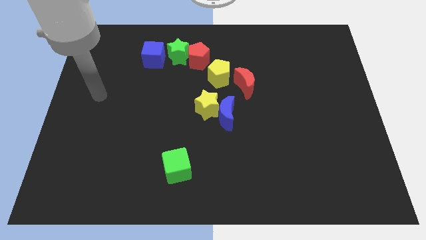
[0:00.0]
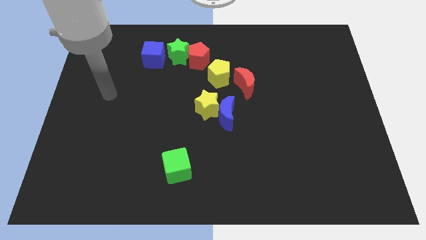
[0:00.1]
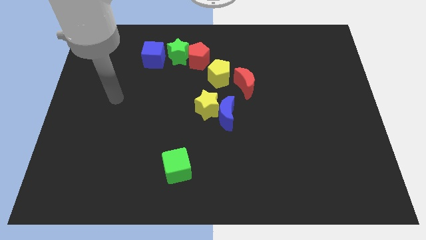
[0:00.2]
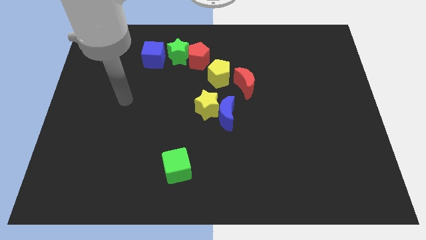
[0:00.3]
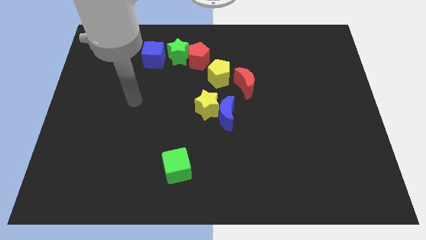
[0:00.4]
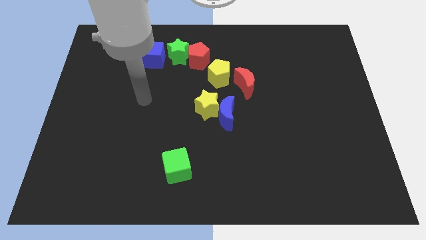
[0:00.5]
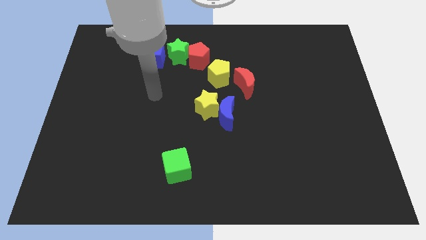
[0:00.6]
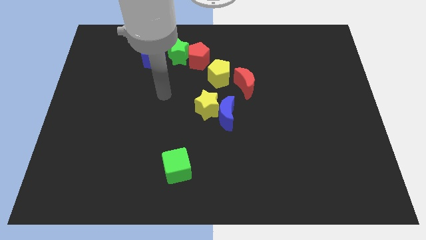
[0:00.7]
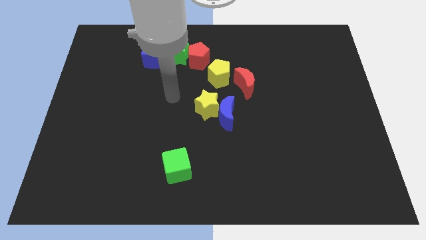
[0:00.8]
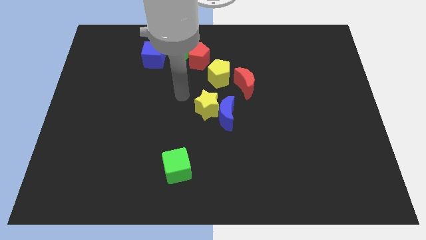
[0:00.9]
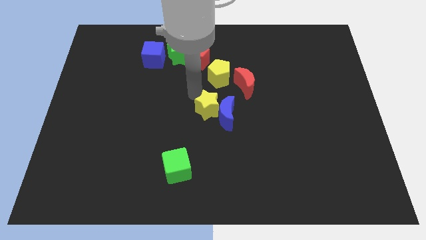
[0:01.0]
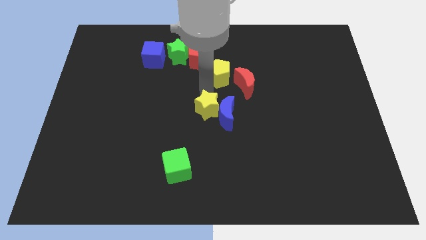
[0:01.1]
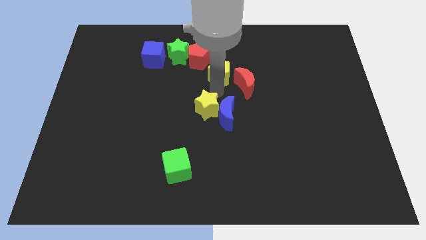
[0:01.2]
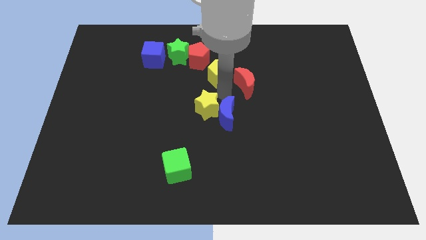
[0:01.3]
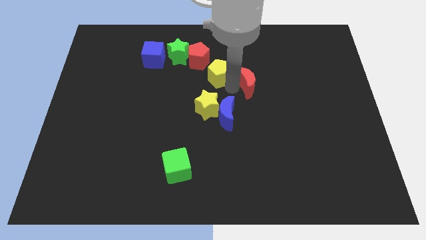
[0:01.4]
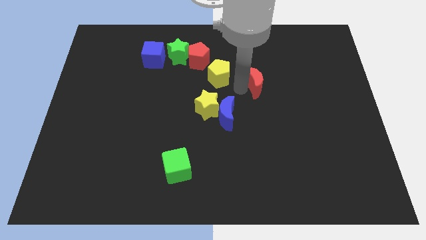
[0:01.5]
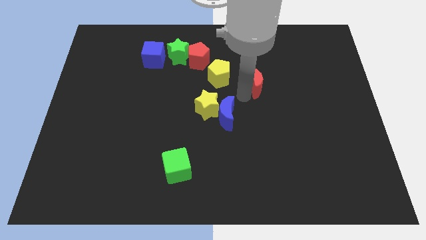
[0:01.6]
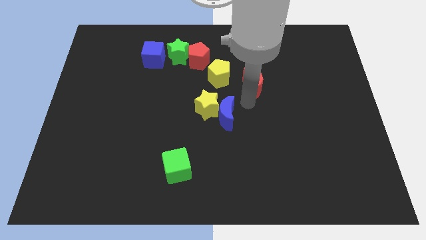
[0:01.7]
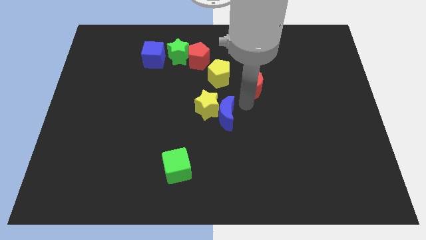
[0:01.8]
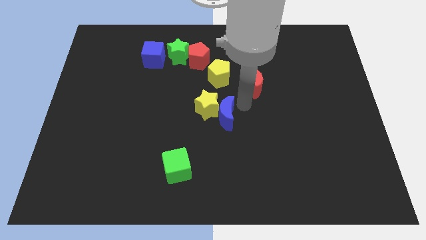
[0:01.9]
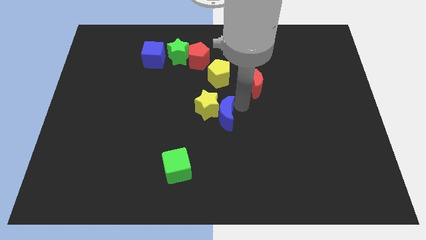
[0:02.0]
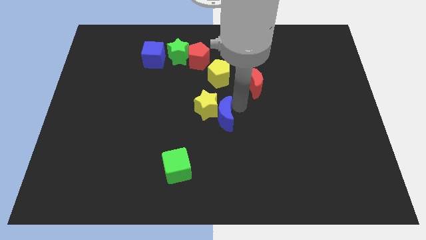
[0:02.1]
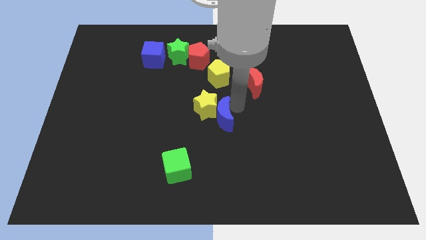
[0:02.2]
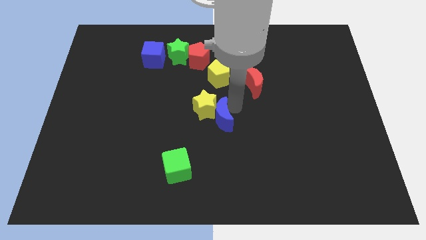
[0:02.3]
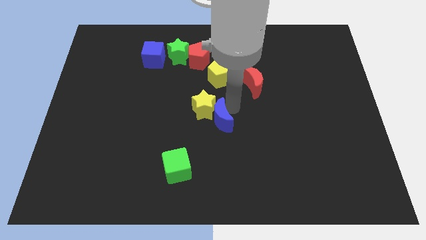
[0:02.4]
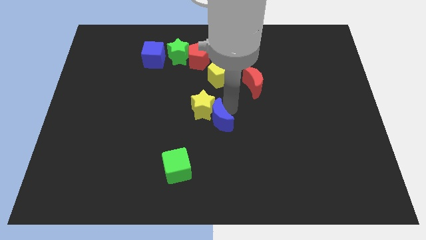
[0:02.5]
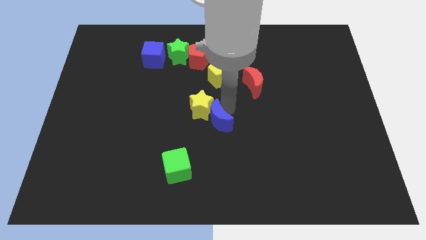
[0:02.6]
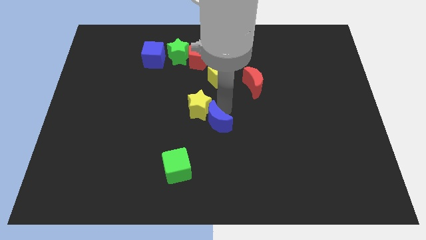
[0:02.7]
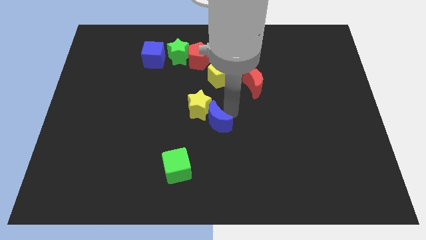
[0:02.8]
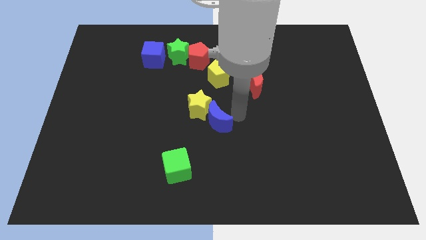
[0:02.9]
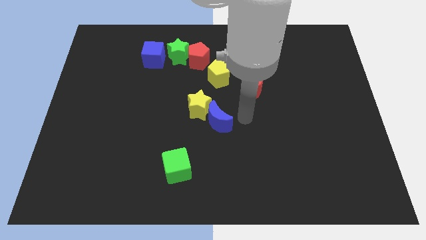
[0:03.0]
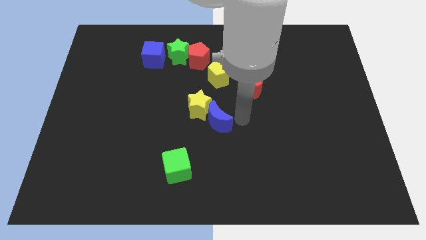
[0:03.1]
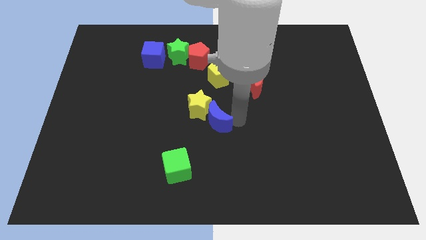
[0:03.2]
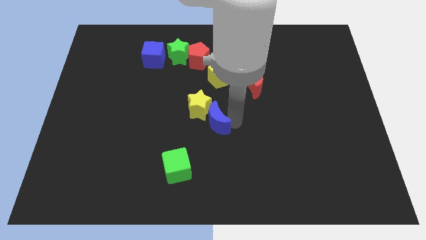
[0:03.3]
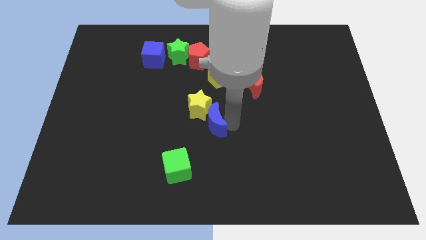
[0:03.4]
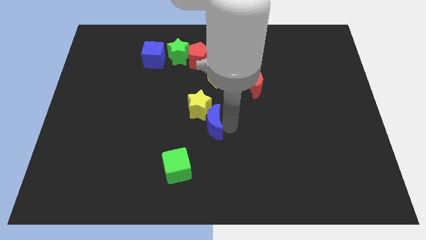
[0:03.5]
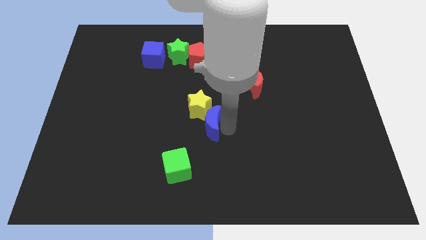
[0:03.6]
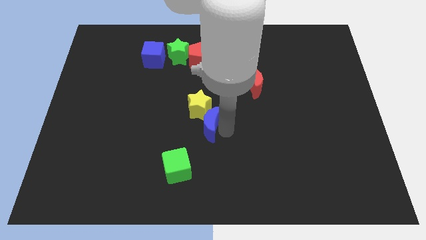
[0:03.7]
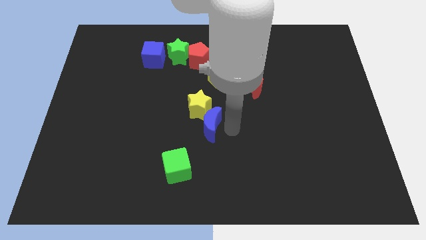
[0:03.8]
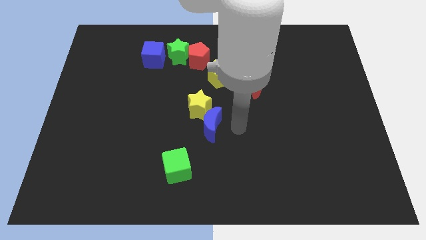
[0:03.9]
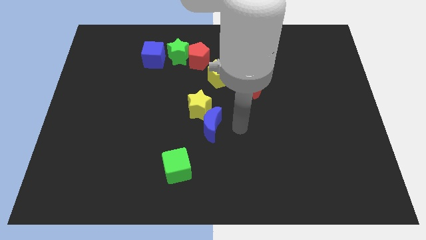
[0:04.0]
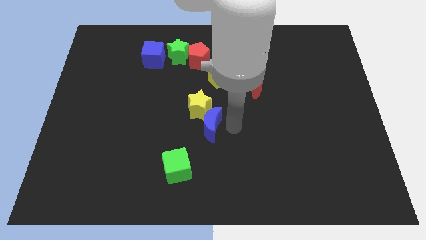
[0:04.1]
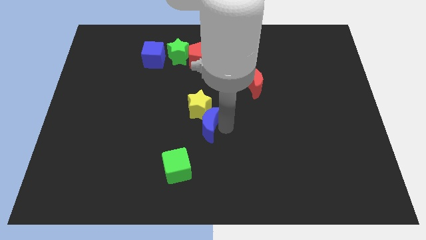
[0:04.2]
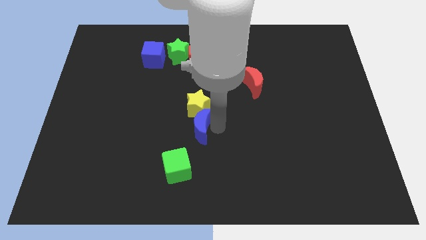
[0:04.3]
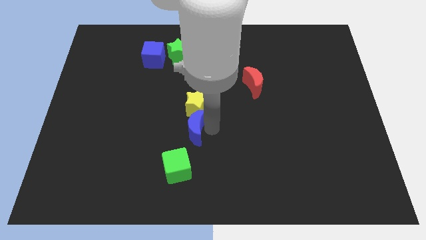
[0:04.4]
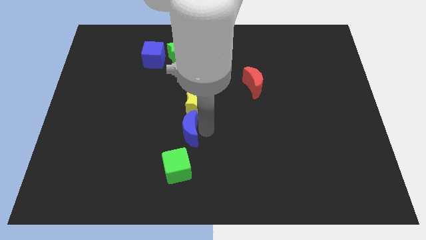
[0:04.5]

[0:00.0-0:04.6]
slide the blue moon a little bit left

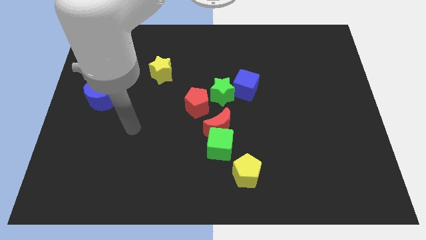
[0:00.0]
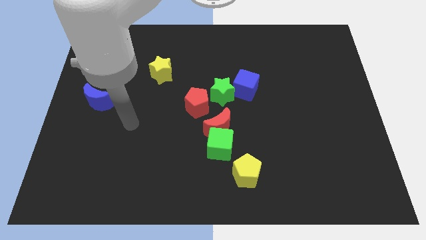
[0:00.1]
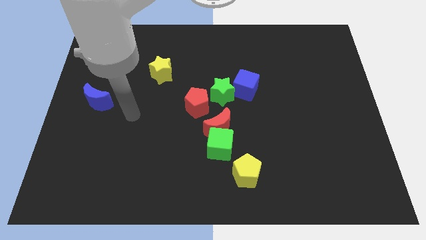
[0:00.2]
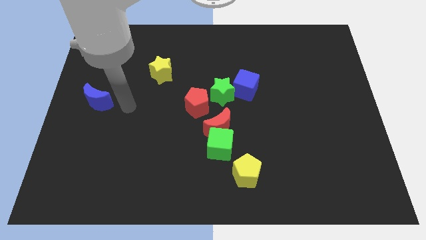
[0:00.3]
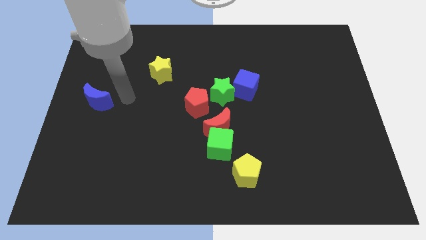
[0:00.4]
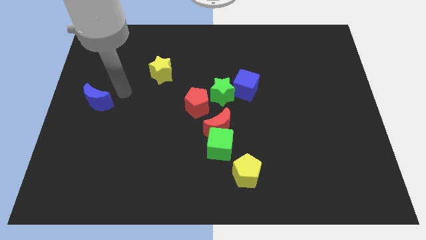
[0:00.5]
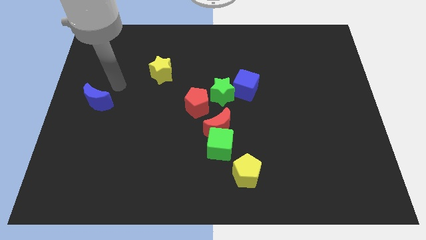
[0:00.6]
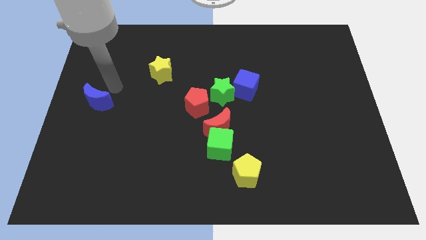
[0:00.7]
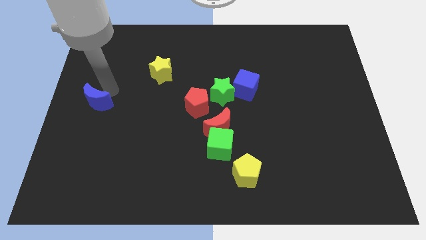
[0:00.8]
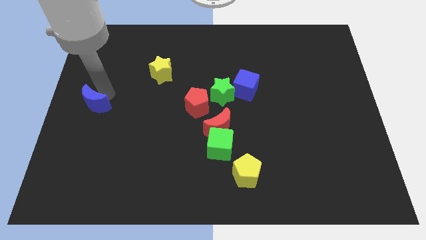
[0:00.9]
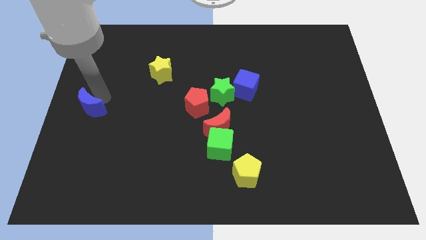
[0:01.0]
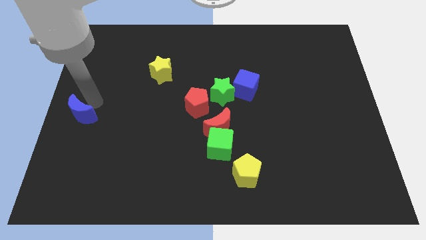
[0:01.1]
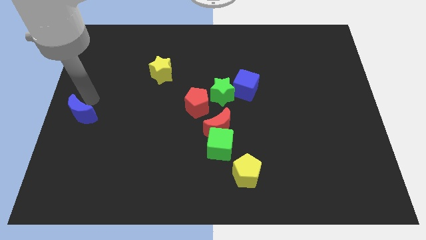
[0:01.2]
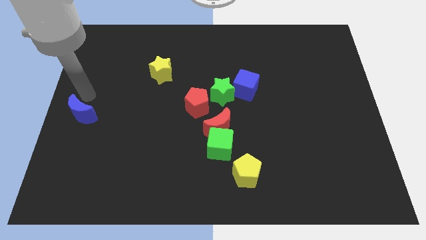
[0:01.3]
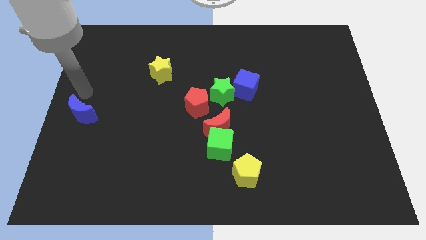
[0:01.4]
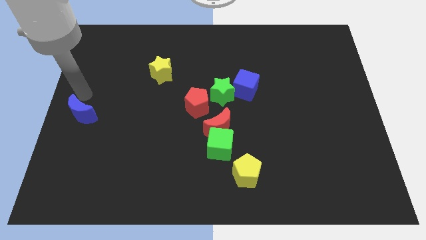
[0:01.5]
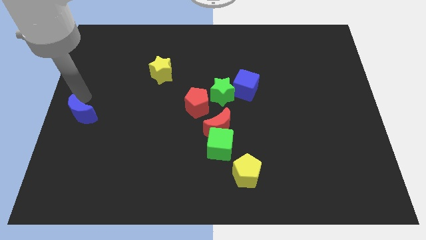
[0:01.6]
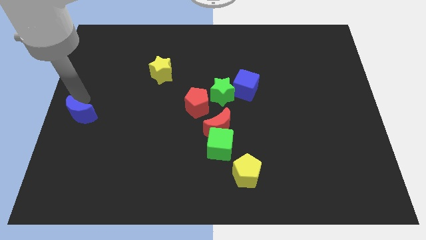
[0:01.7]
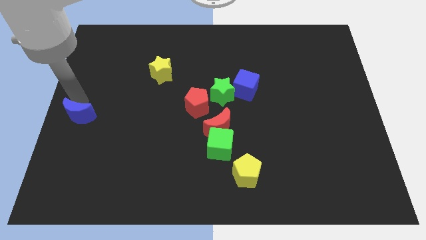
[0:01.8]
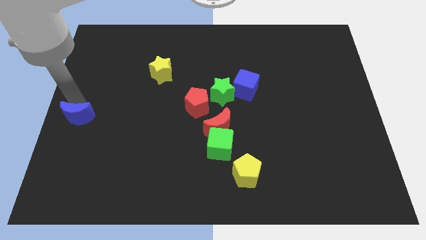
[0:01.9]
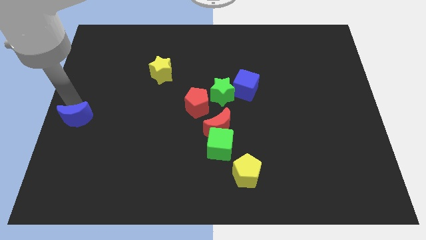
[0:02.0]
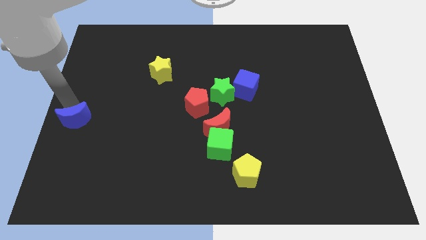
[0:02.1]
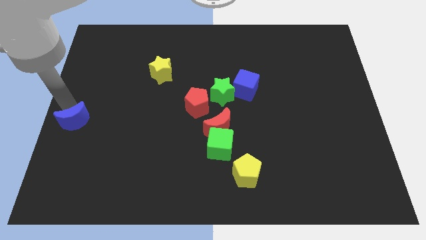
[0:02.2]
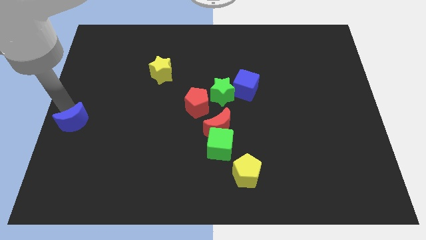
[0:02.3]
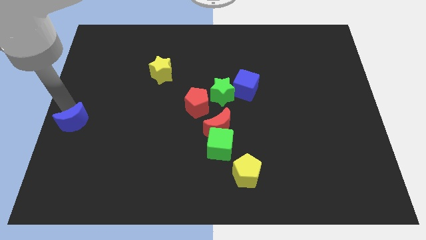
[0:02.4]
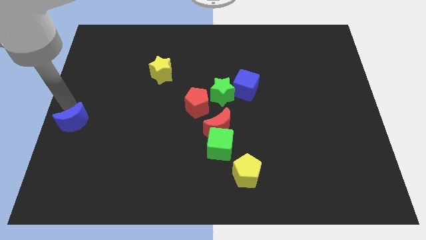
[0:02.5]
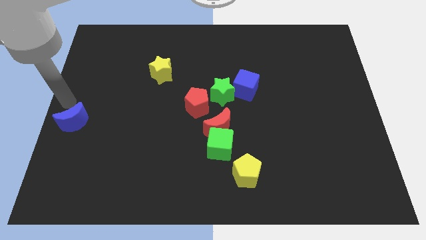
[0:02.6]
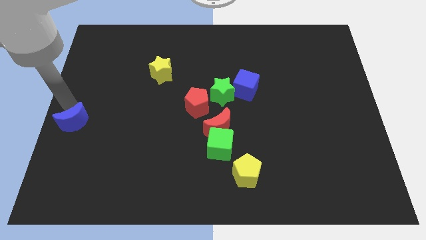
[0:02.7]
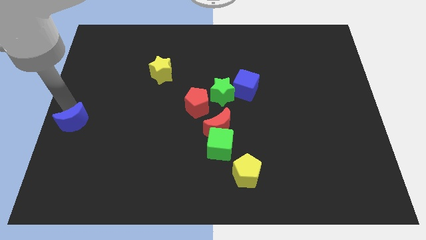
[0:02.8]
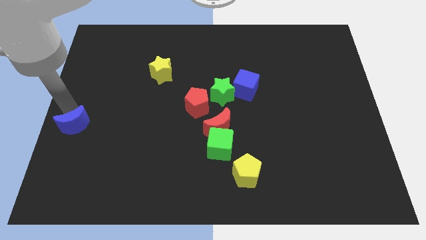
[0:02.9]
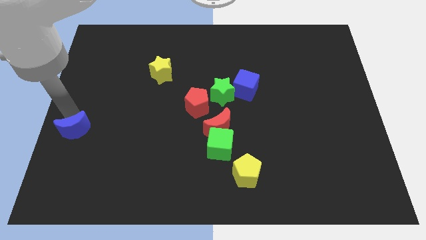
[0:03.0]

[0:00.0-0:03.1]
slide the blue moon a little bit down

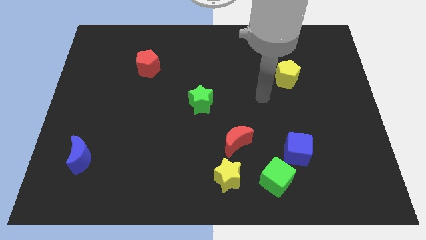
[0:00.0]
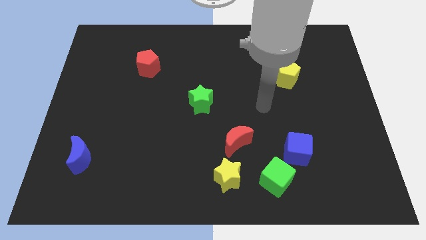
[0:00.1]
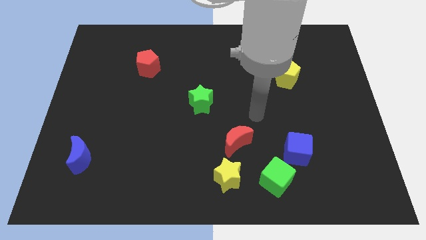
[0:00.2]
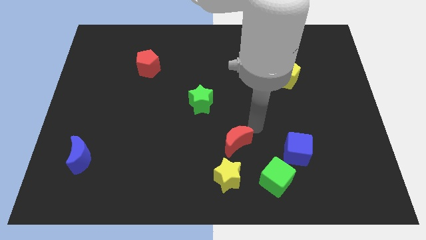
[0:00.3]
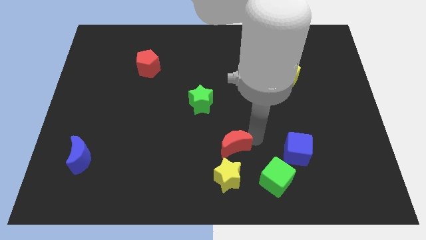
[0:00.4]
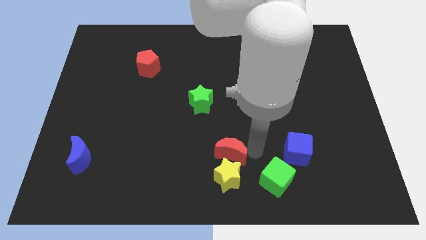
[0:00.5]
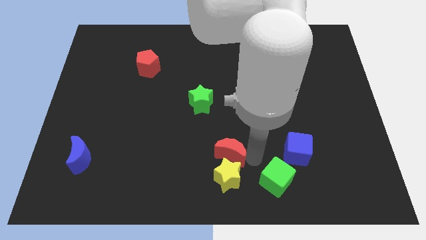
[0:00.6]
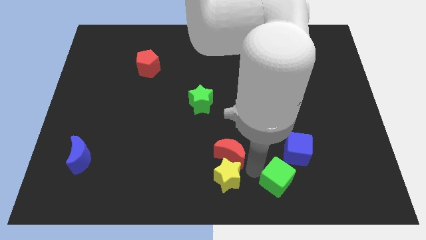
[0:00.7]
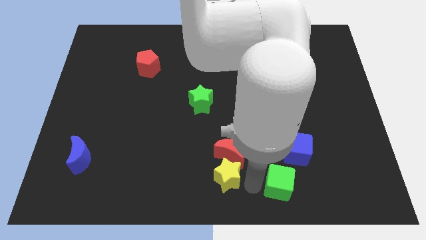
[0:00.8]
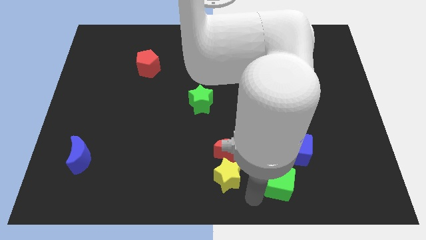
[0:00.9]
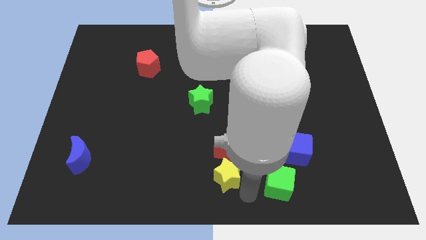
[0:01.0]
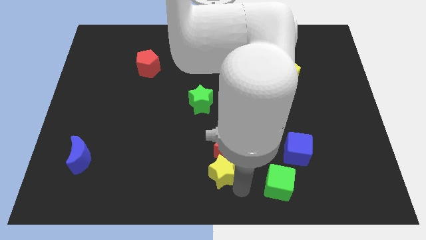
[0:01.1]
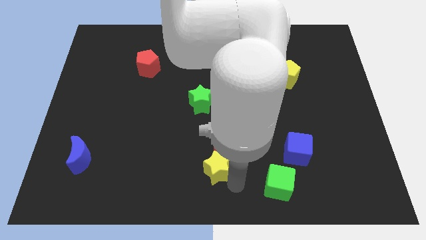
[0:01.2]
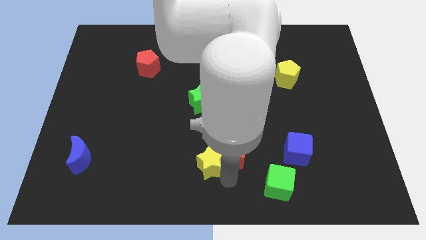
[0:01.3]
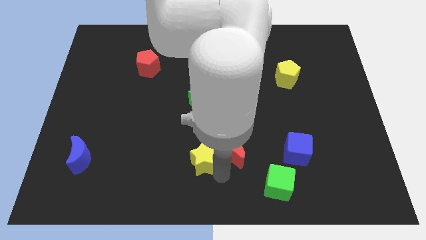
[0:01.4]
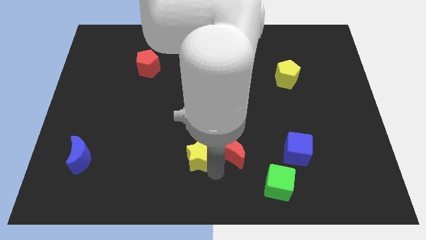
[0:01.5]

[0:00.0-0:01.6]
push the yellow star a little upwards and to the left
